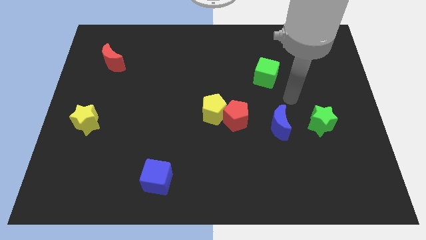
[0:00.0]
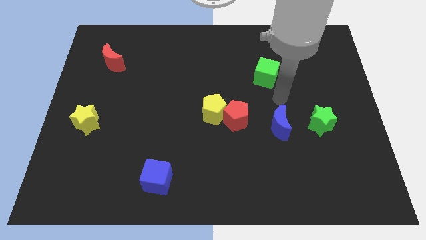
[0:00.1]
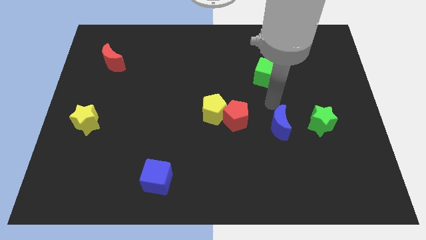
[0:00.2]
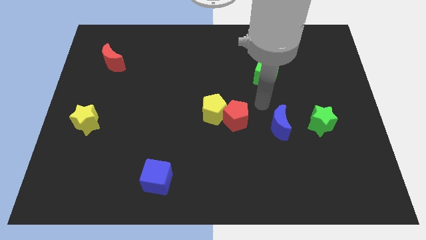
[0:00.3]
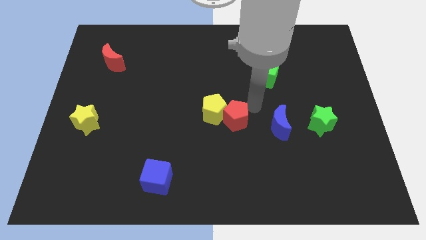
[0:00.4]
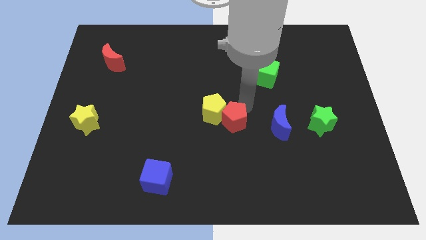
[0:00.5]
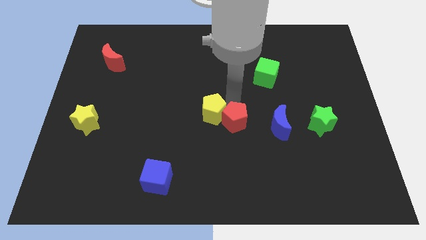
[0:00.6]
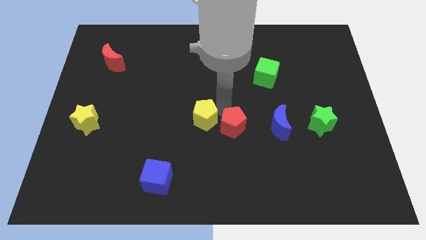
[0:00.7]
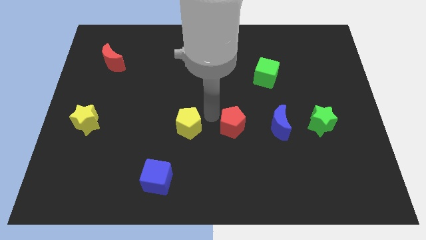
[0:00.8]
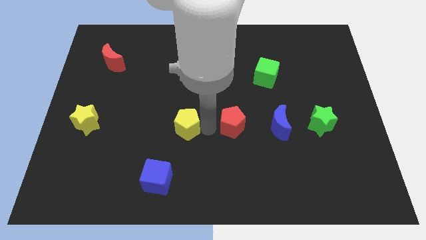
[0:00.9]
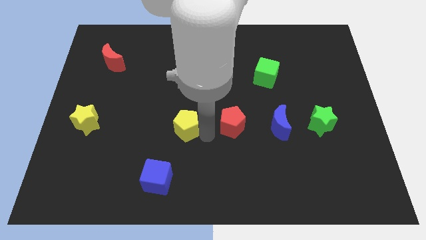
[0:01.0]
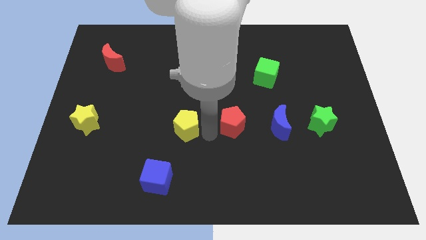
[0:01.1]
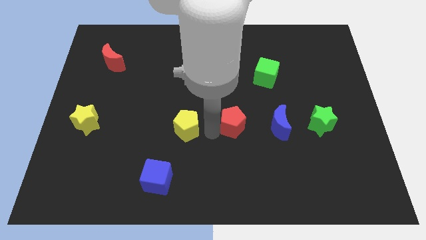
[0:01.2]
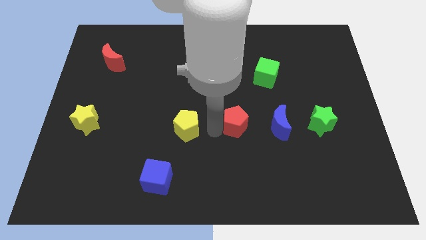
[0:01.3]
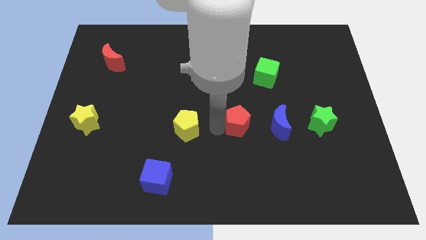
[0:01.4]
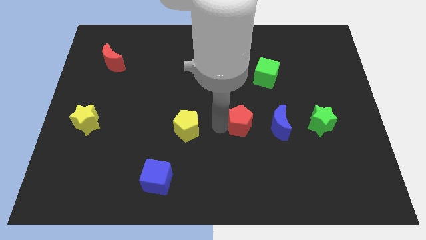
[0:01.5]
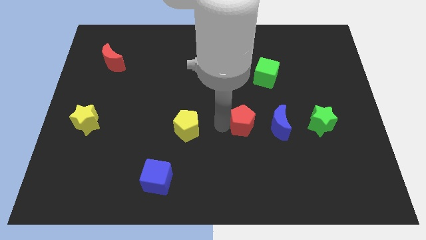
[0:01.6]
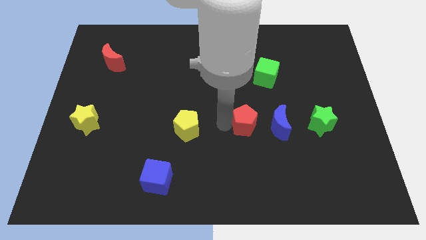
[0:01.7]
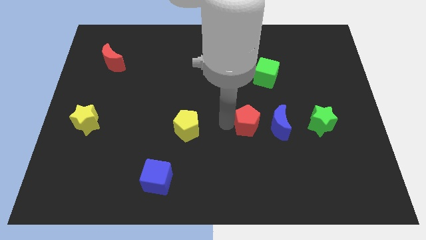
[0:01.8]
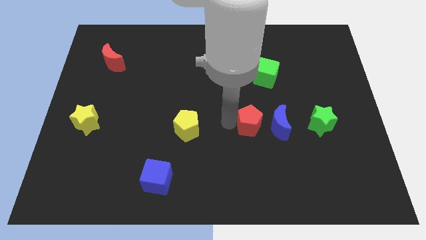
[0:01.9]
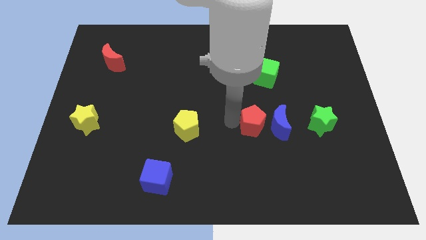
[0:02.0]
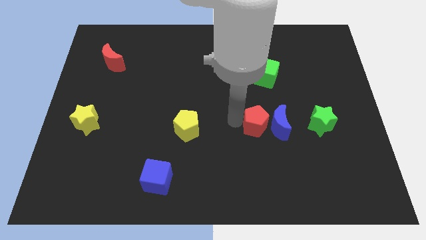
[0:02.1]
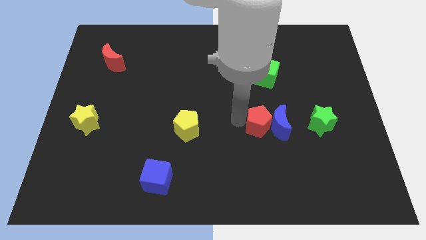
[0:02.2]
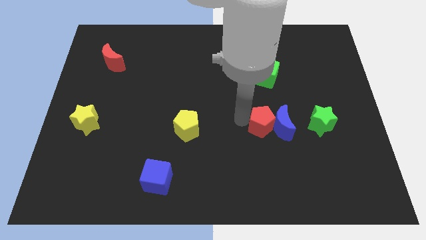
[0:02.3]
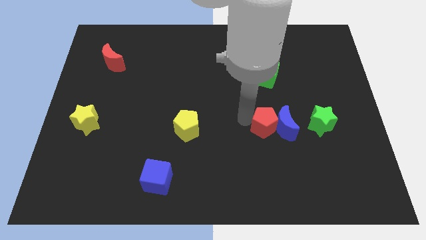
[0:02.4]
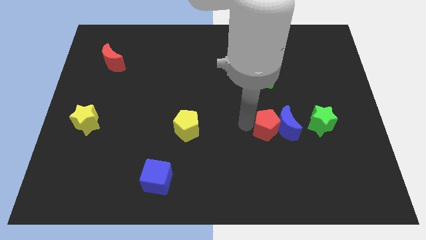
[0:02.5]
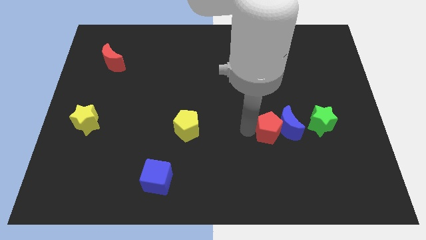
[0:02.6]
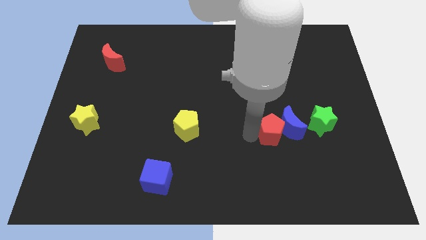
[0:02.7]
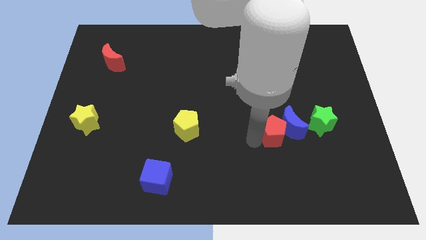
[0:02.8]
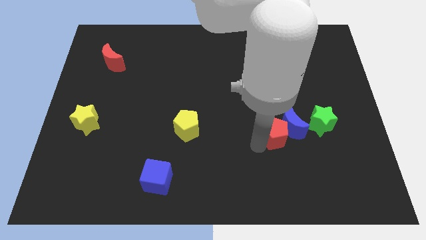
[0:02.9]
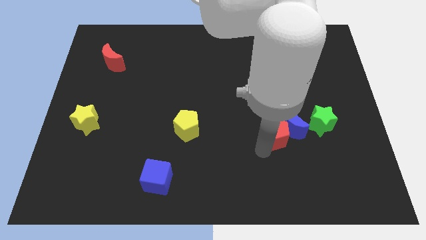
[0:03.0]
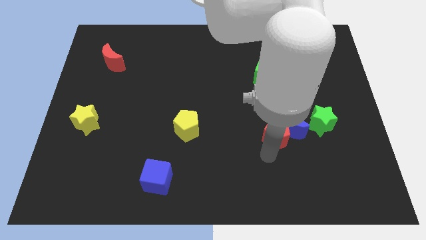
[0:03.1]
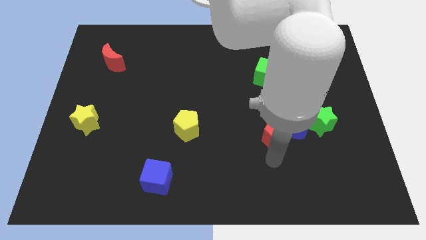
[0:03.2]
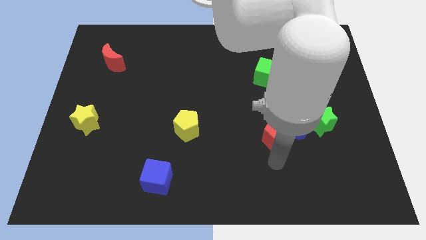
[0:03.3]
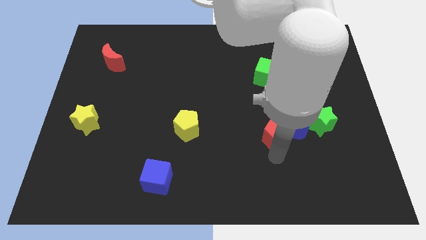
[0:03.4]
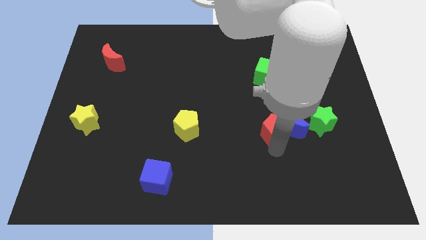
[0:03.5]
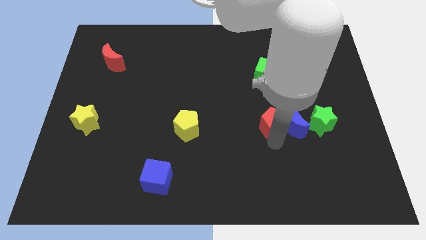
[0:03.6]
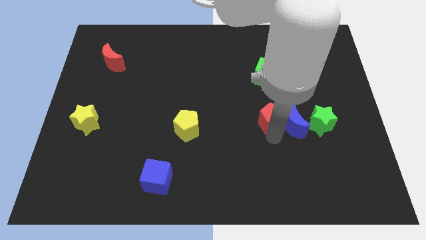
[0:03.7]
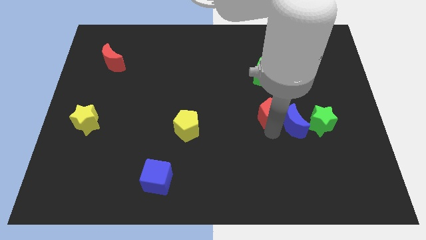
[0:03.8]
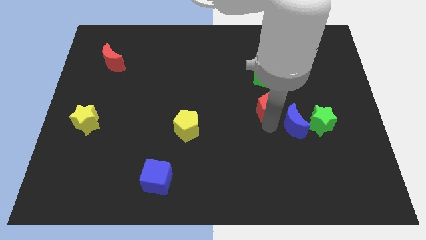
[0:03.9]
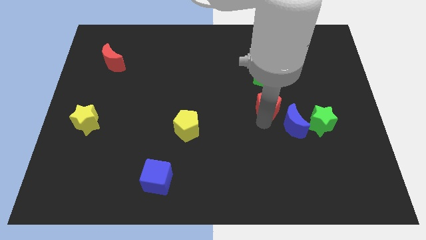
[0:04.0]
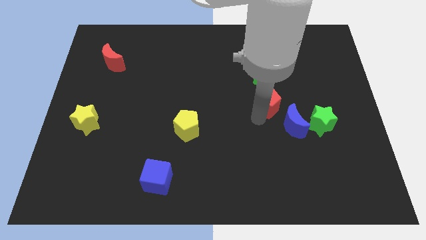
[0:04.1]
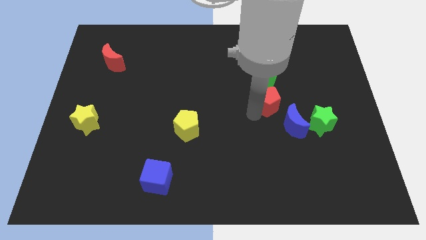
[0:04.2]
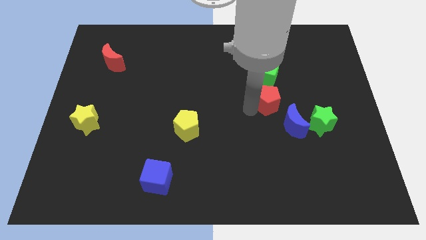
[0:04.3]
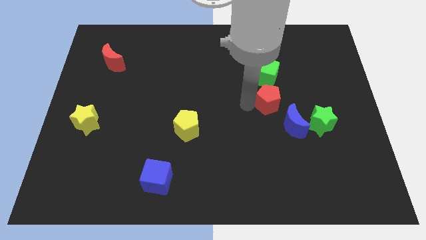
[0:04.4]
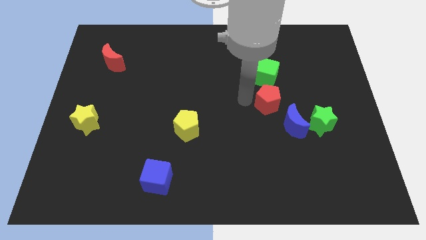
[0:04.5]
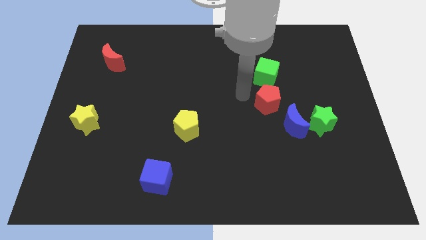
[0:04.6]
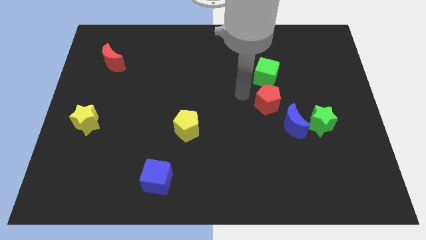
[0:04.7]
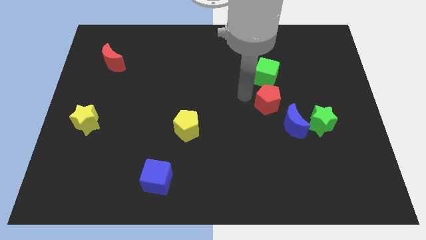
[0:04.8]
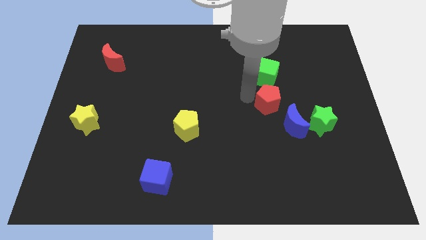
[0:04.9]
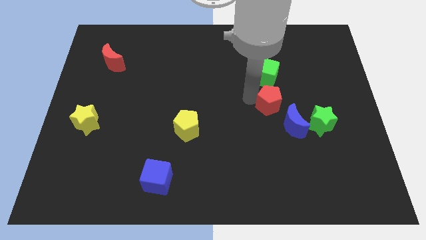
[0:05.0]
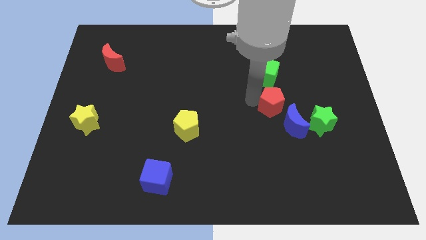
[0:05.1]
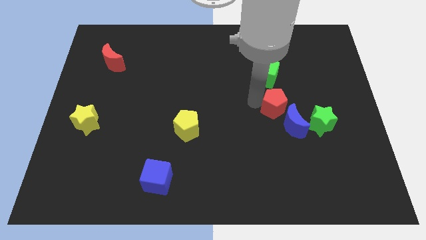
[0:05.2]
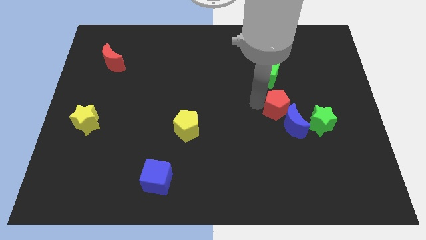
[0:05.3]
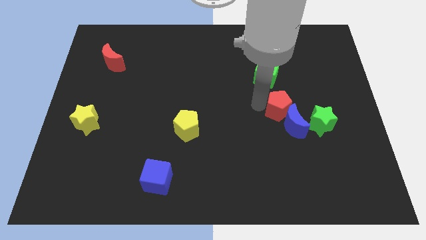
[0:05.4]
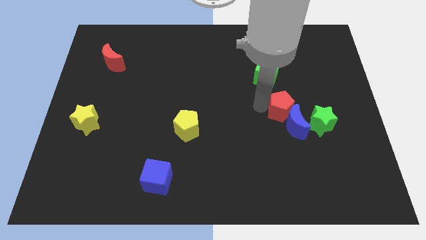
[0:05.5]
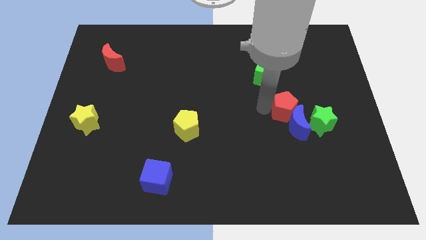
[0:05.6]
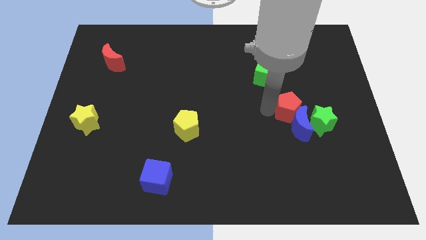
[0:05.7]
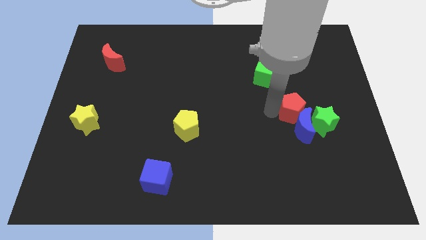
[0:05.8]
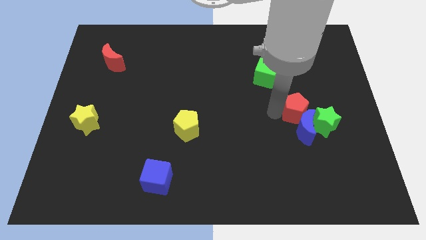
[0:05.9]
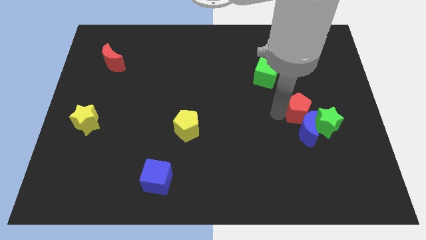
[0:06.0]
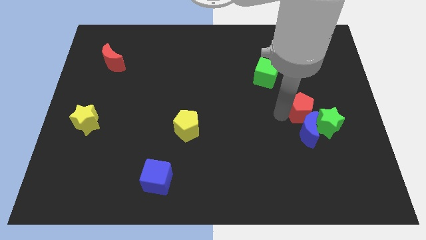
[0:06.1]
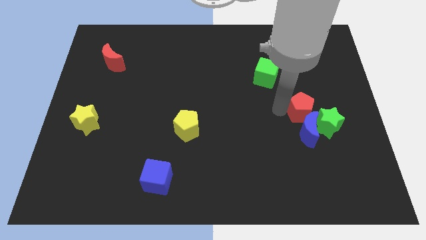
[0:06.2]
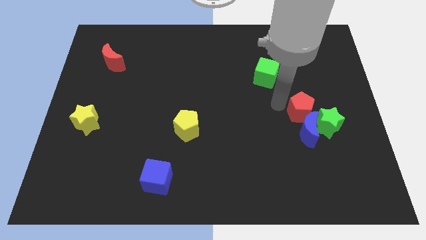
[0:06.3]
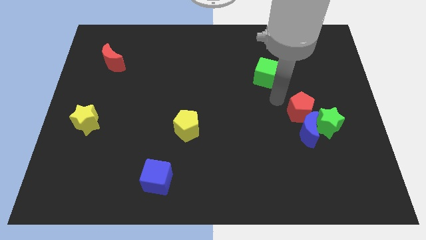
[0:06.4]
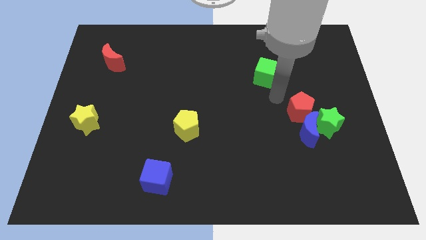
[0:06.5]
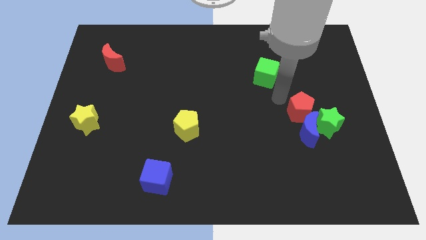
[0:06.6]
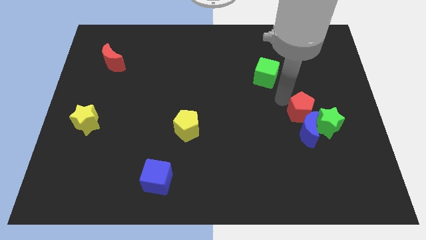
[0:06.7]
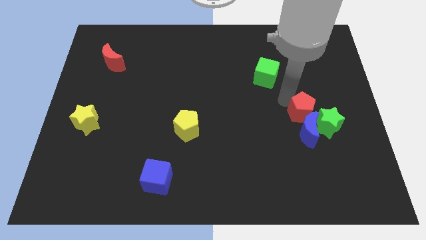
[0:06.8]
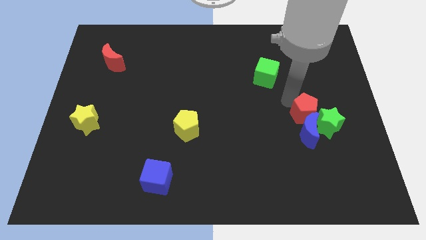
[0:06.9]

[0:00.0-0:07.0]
push the red pentagon next to the green star
